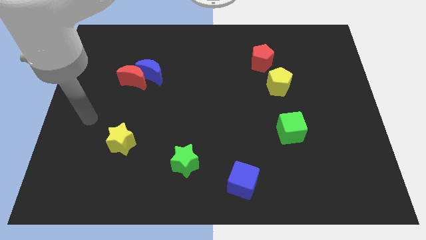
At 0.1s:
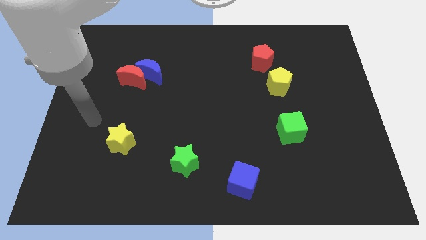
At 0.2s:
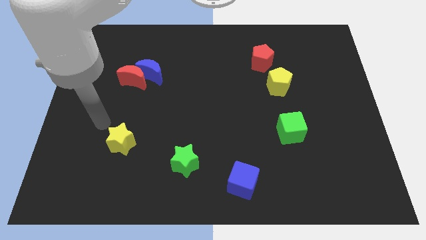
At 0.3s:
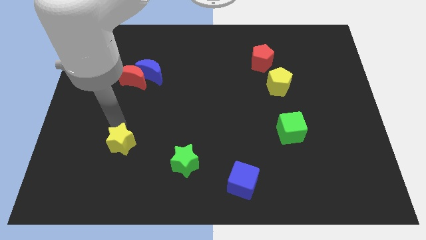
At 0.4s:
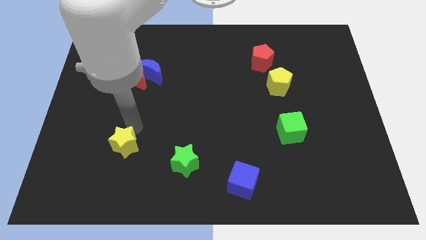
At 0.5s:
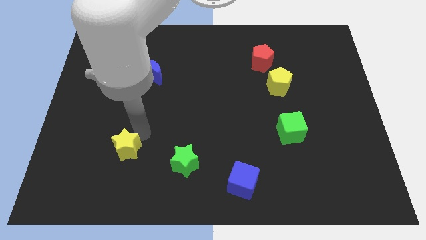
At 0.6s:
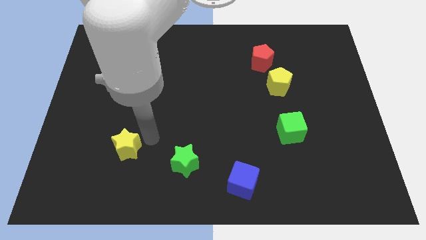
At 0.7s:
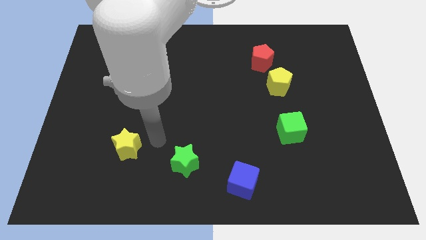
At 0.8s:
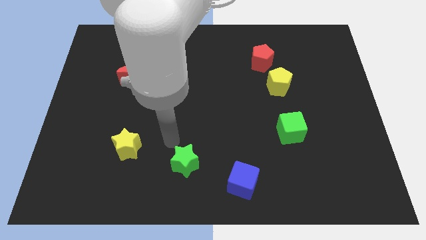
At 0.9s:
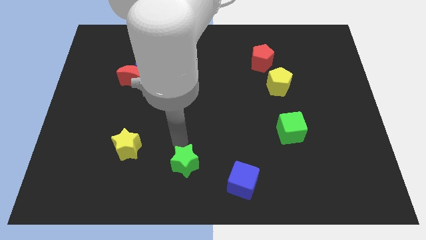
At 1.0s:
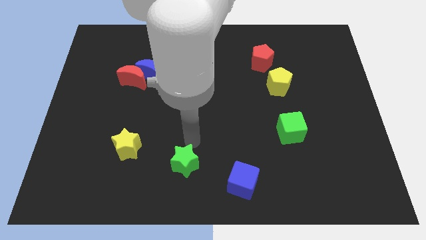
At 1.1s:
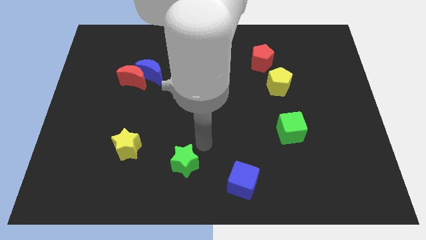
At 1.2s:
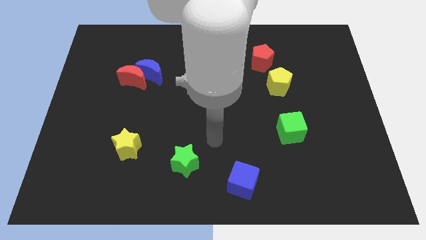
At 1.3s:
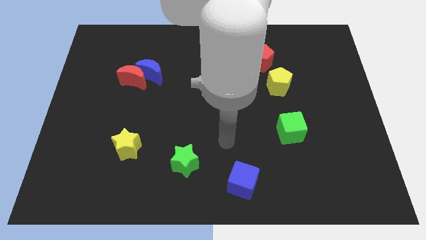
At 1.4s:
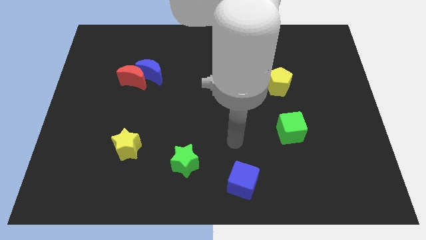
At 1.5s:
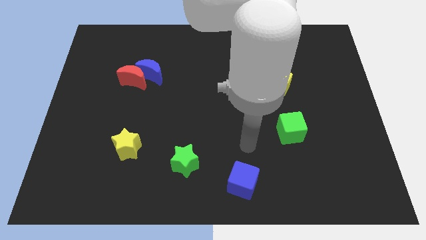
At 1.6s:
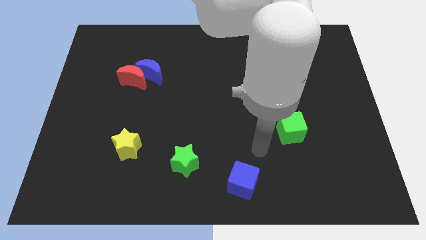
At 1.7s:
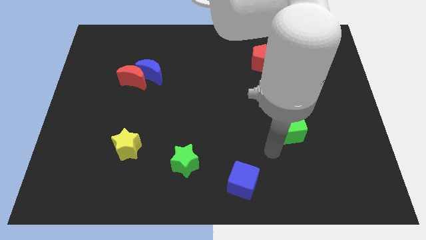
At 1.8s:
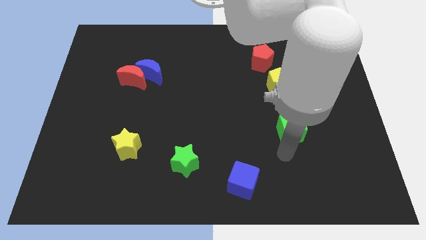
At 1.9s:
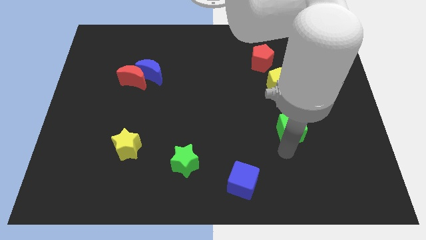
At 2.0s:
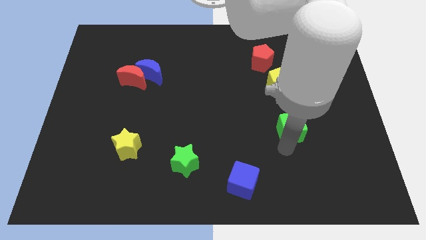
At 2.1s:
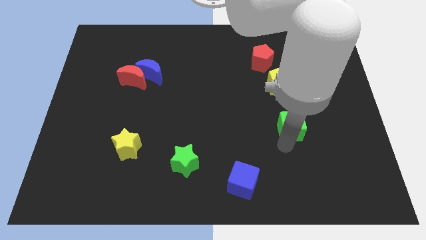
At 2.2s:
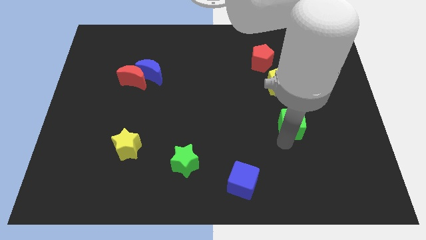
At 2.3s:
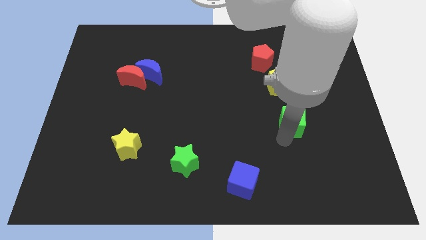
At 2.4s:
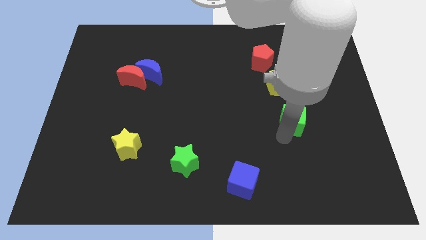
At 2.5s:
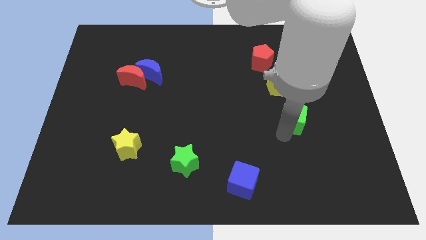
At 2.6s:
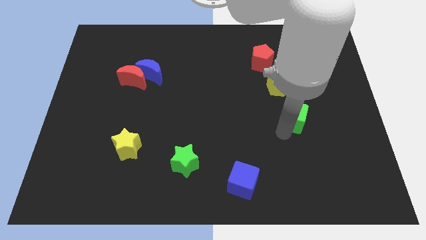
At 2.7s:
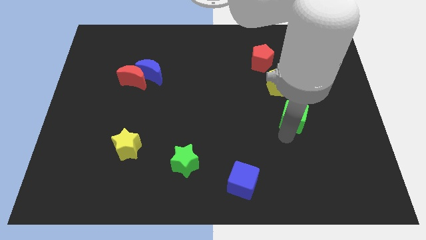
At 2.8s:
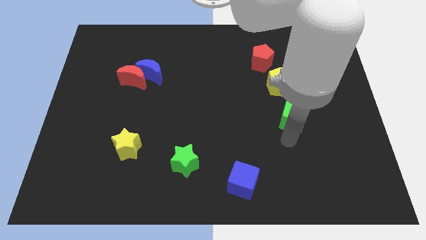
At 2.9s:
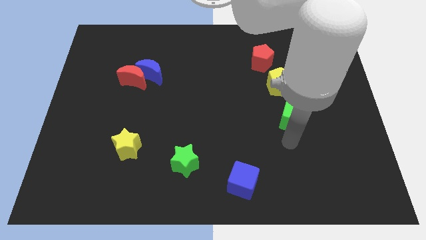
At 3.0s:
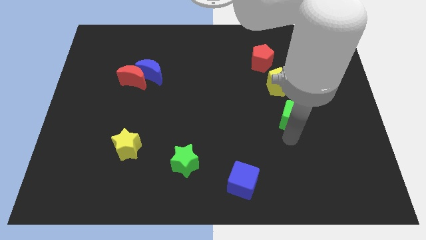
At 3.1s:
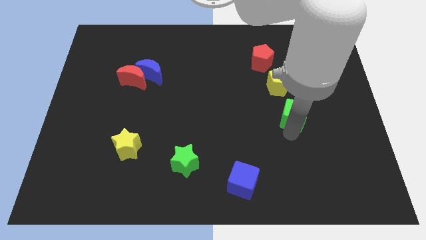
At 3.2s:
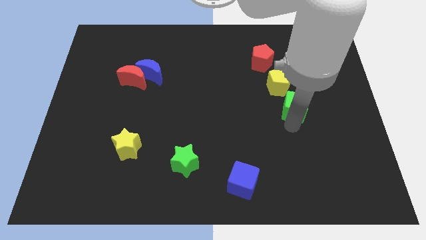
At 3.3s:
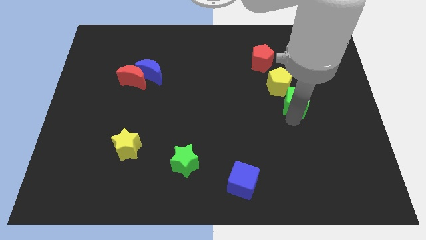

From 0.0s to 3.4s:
slightly push the green cube up

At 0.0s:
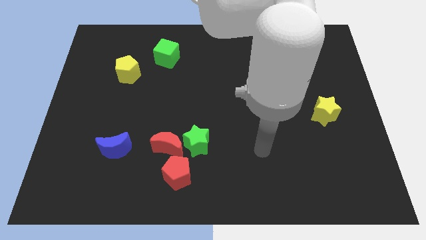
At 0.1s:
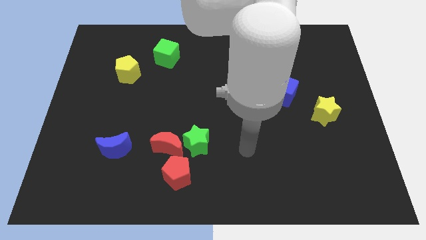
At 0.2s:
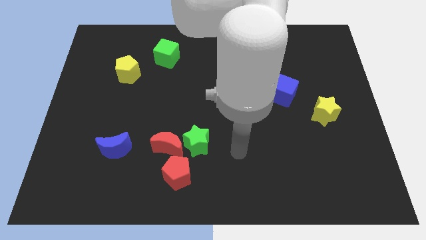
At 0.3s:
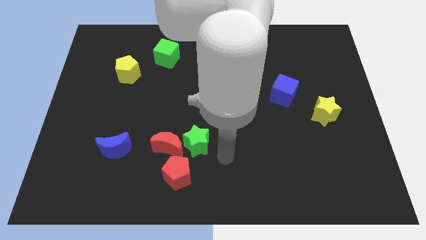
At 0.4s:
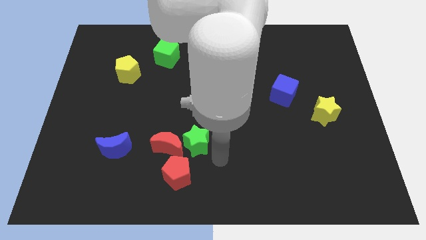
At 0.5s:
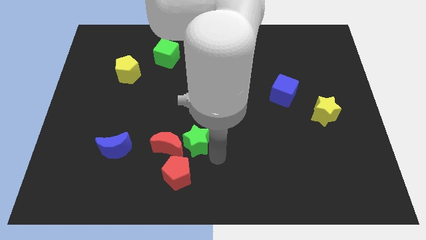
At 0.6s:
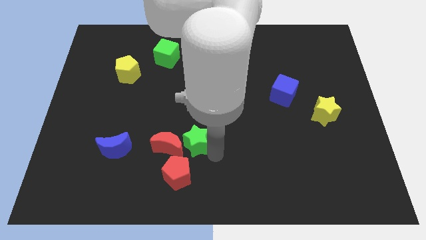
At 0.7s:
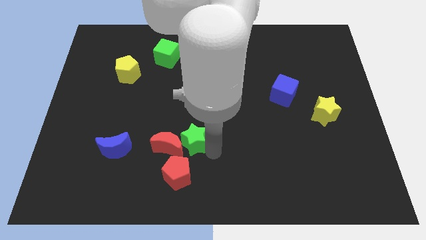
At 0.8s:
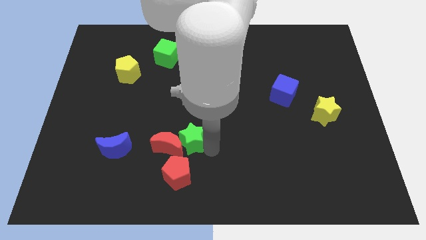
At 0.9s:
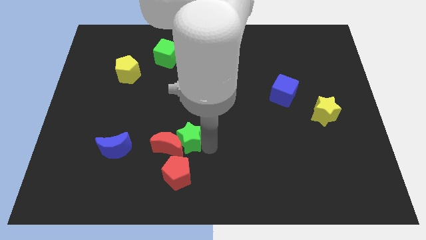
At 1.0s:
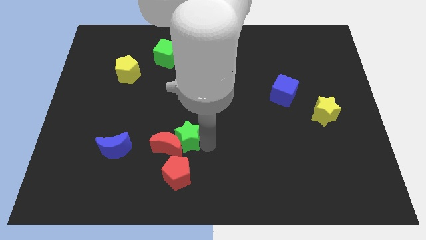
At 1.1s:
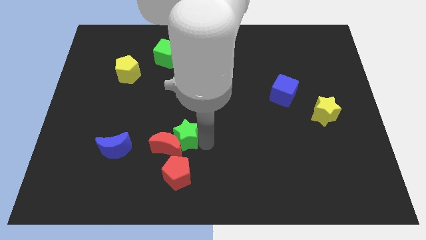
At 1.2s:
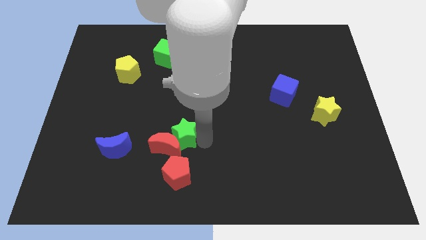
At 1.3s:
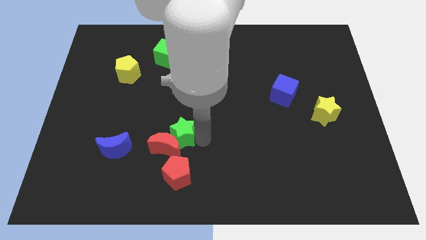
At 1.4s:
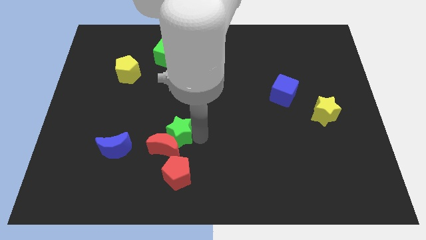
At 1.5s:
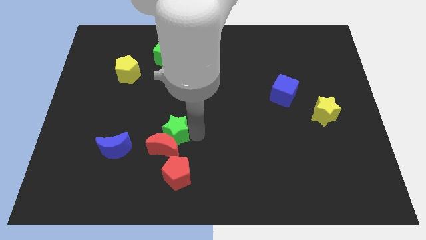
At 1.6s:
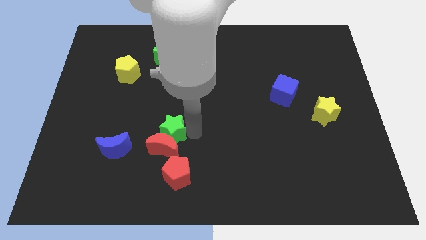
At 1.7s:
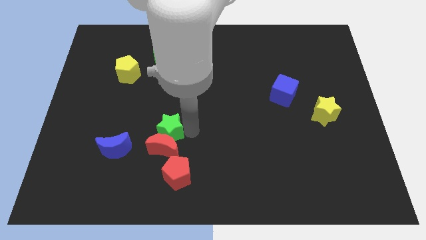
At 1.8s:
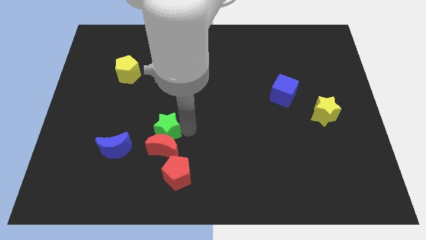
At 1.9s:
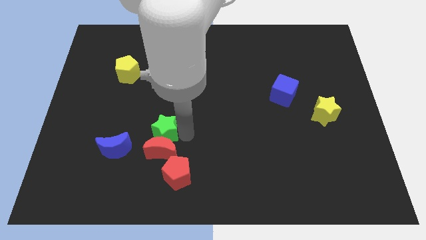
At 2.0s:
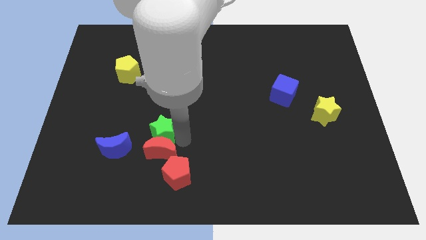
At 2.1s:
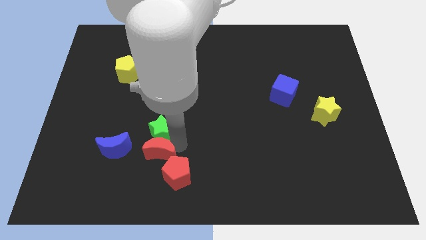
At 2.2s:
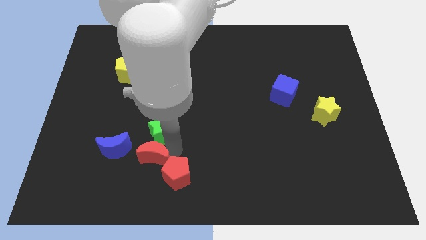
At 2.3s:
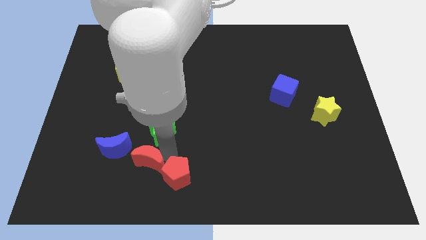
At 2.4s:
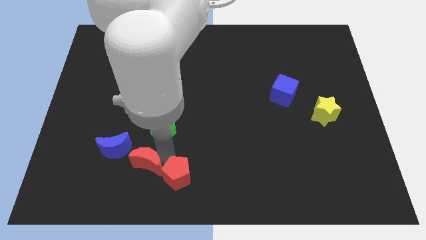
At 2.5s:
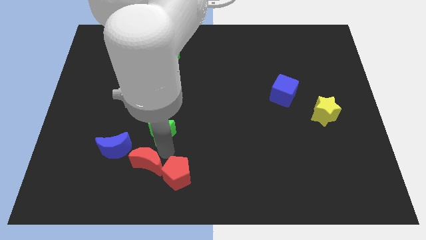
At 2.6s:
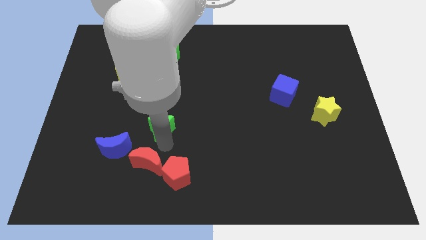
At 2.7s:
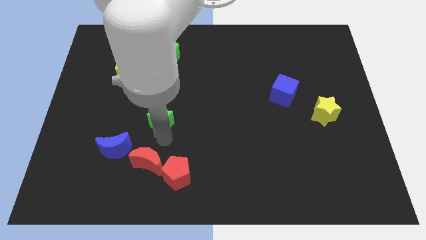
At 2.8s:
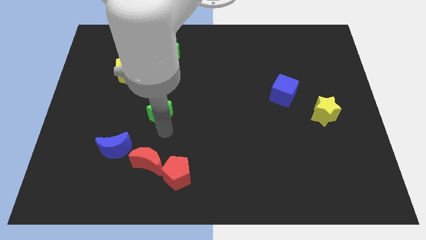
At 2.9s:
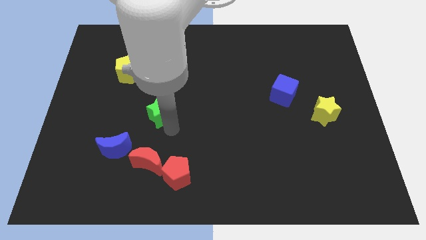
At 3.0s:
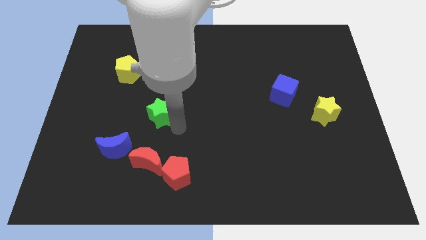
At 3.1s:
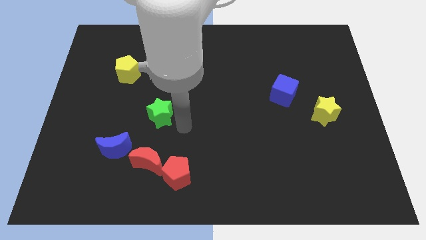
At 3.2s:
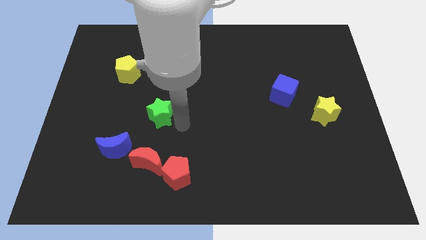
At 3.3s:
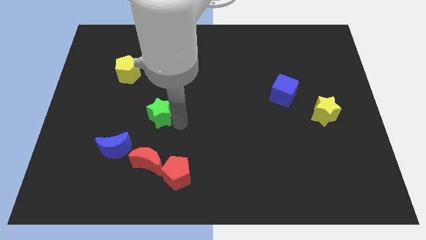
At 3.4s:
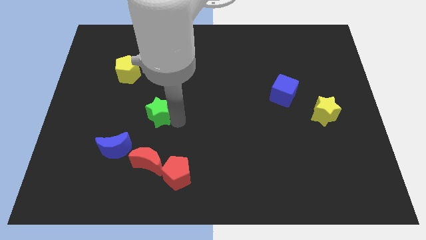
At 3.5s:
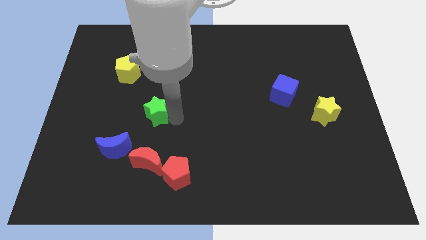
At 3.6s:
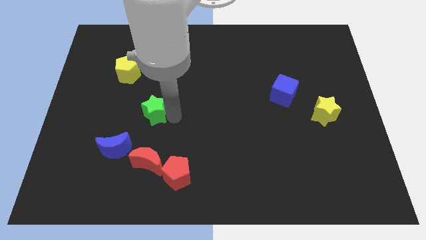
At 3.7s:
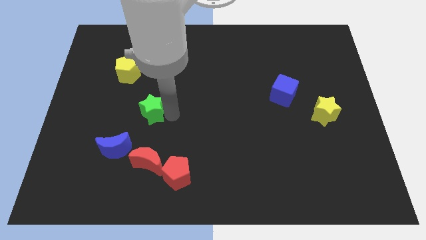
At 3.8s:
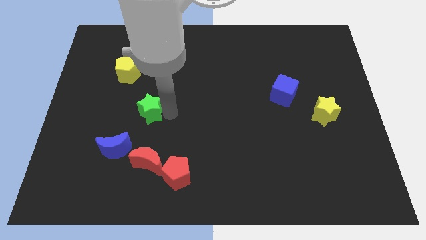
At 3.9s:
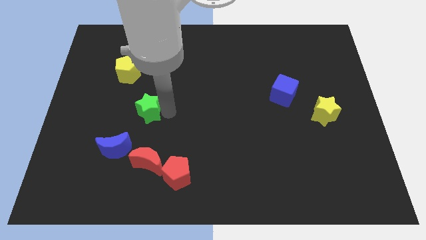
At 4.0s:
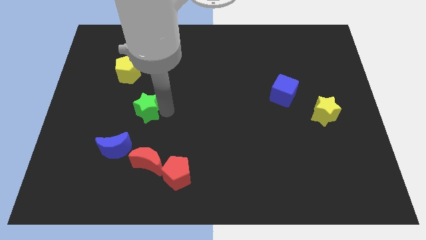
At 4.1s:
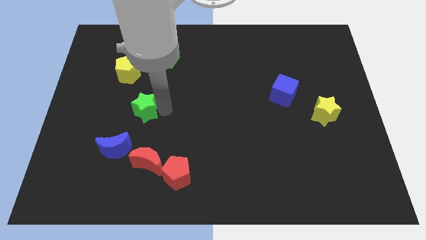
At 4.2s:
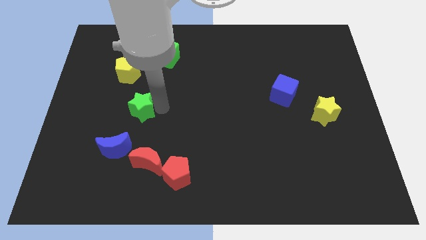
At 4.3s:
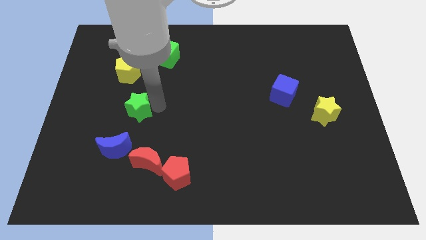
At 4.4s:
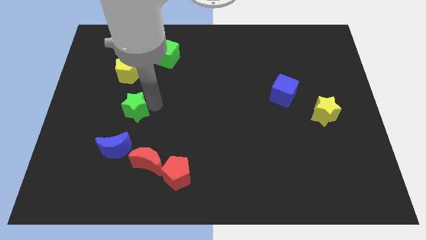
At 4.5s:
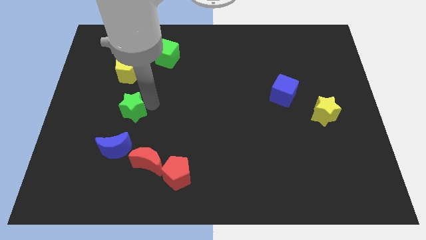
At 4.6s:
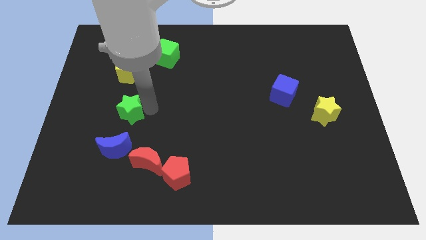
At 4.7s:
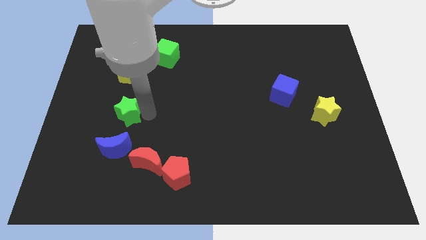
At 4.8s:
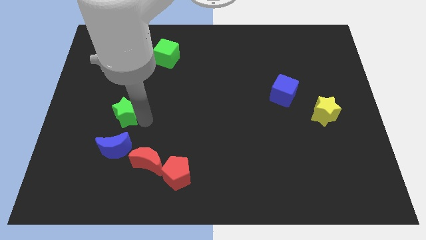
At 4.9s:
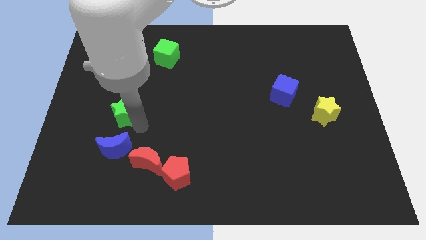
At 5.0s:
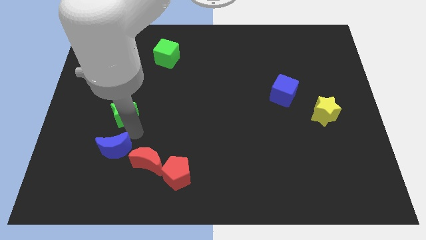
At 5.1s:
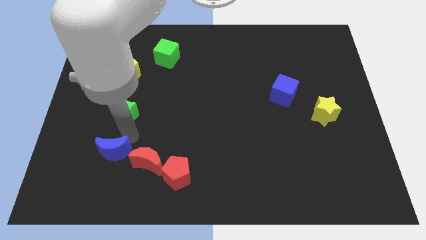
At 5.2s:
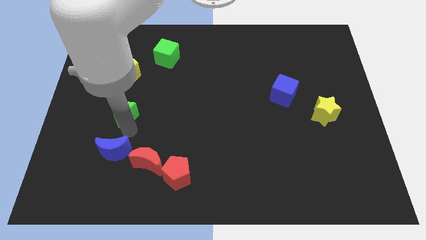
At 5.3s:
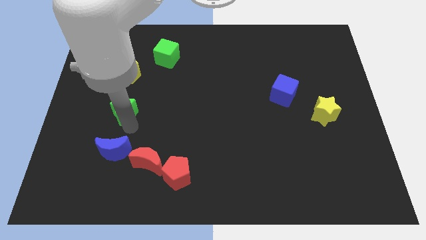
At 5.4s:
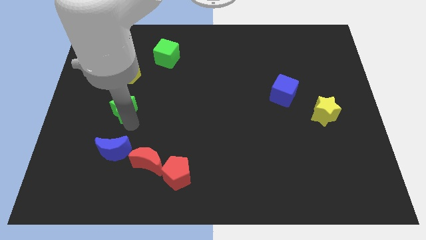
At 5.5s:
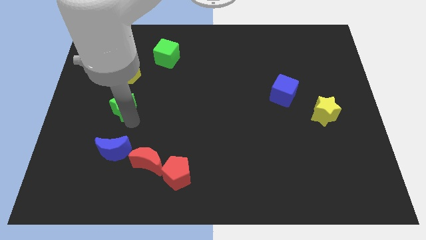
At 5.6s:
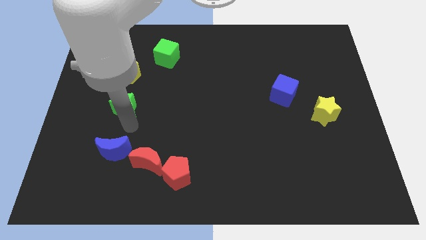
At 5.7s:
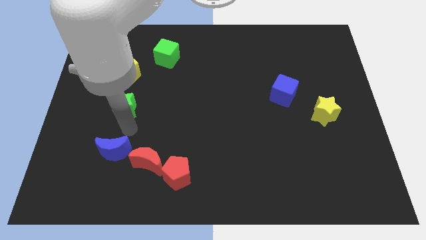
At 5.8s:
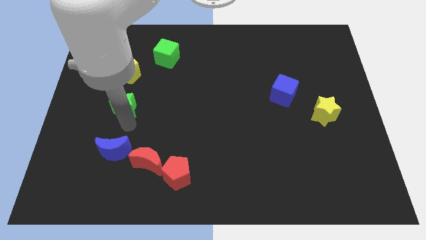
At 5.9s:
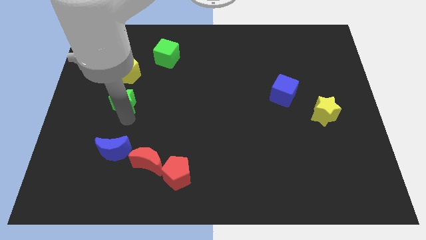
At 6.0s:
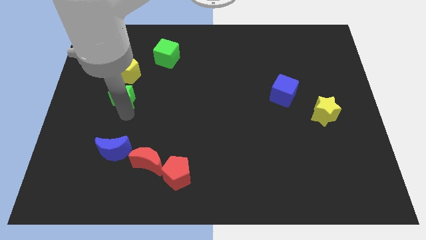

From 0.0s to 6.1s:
push the green star upwards and left
